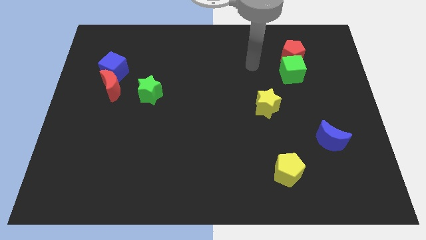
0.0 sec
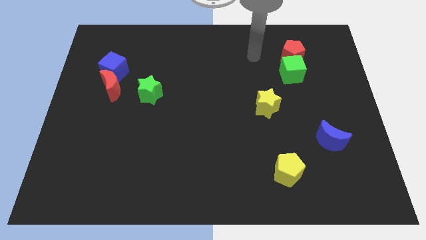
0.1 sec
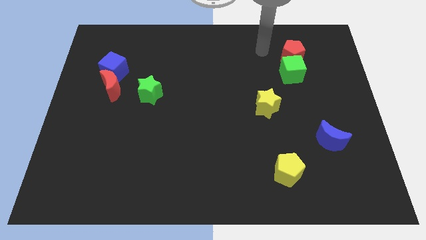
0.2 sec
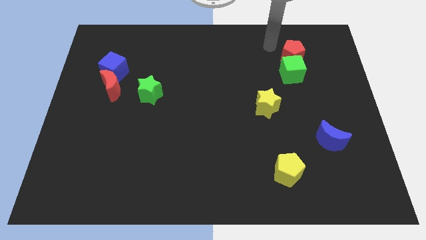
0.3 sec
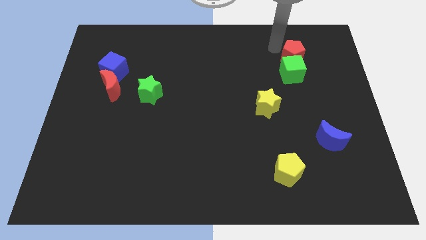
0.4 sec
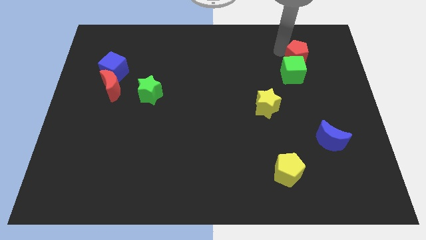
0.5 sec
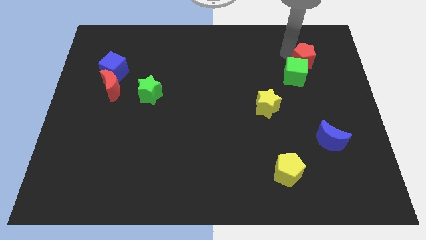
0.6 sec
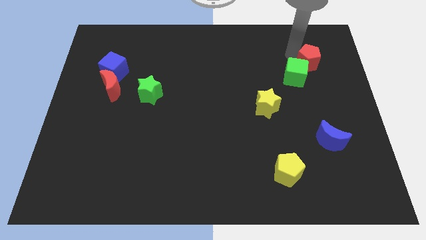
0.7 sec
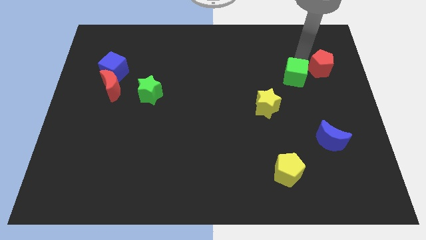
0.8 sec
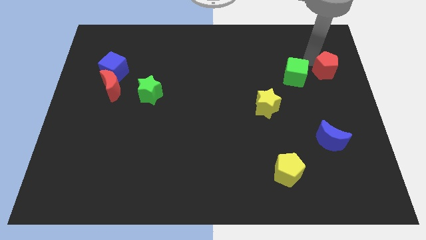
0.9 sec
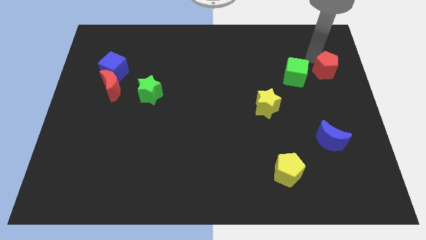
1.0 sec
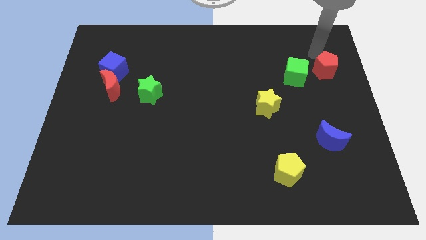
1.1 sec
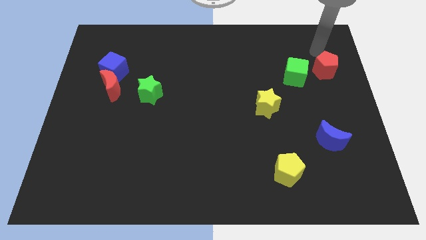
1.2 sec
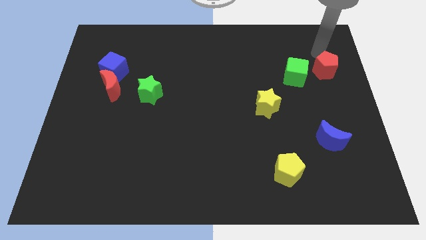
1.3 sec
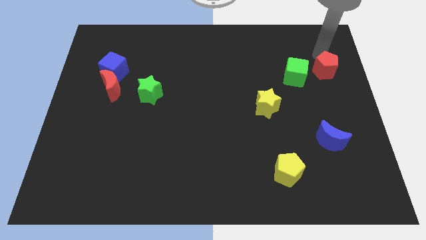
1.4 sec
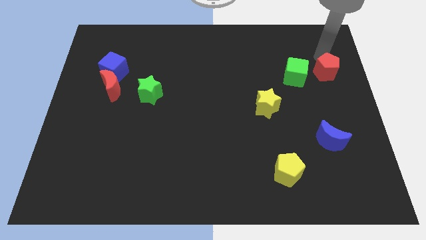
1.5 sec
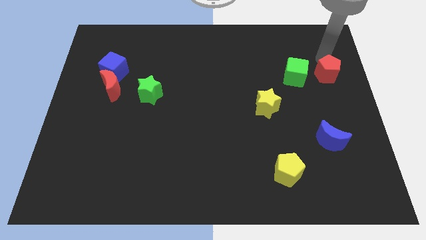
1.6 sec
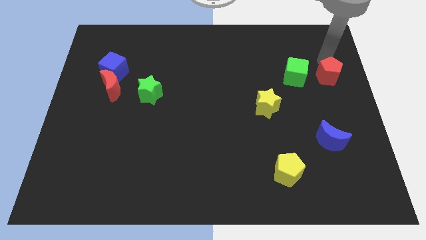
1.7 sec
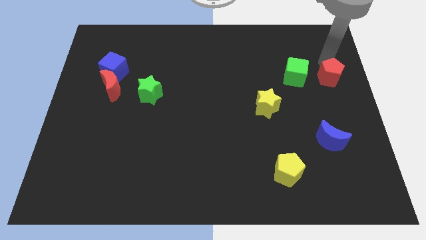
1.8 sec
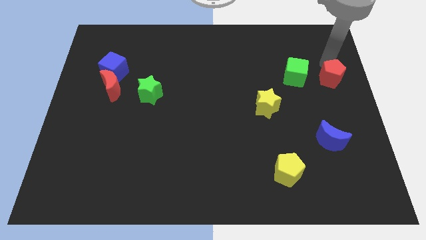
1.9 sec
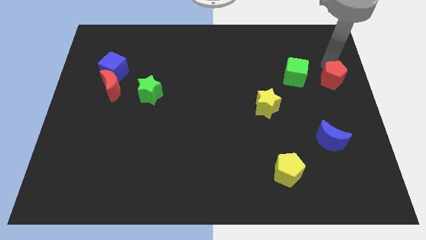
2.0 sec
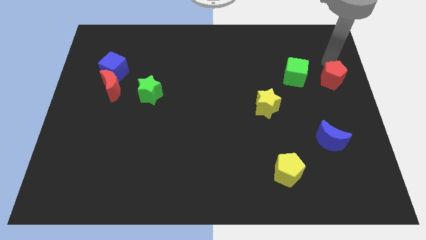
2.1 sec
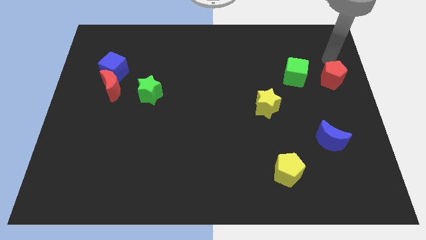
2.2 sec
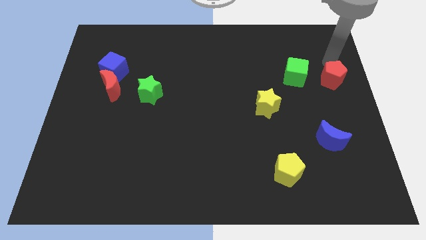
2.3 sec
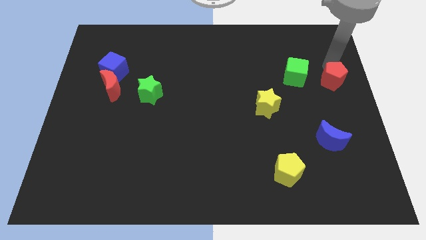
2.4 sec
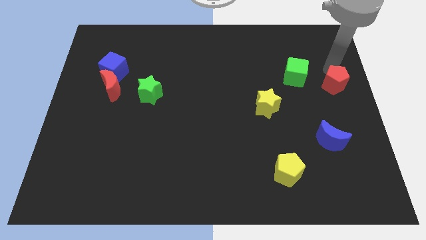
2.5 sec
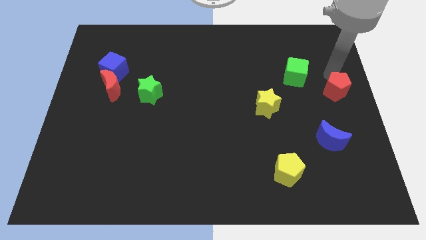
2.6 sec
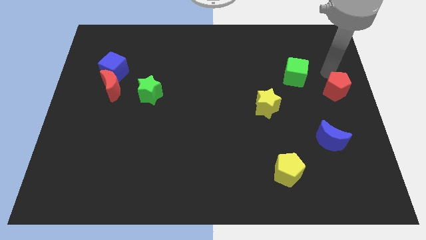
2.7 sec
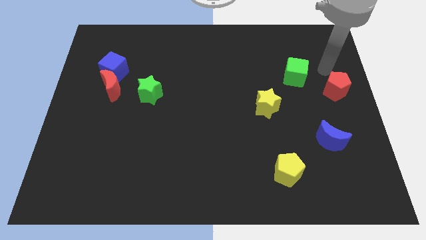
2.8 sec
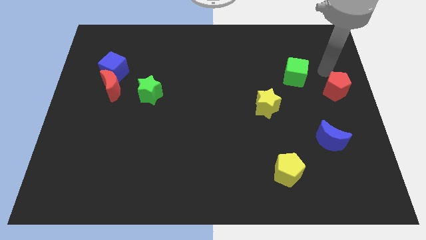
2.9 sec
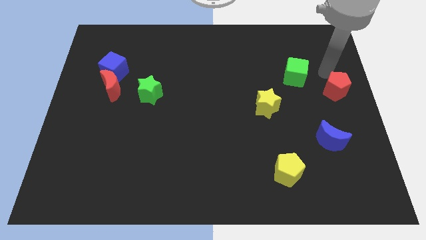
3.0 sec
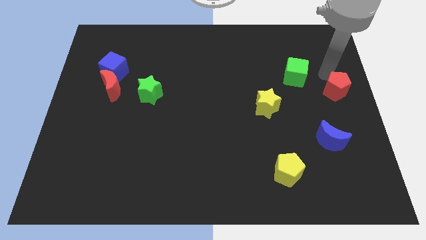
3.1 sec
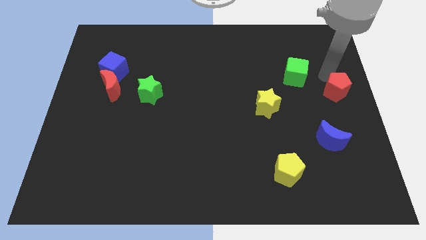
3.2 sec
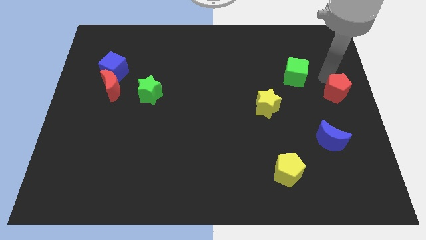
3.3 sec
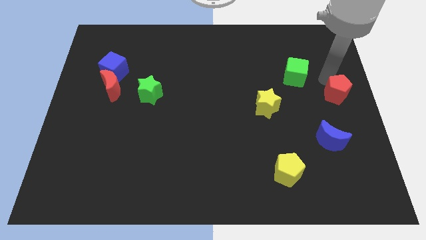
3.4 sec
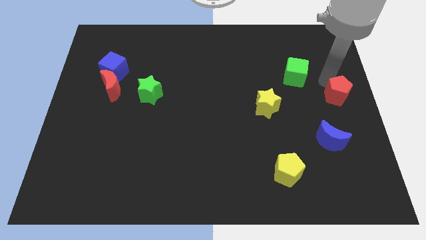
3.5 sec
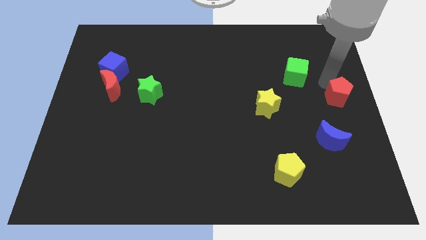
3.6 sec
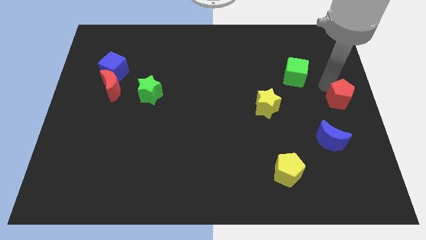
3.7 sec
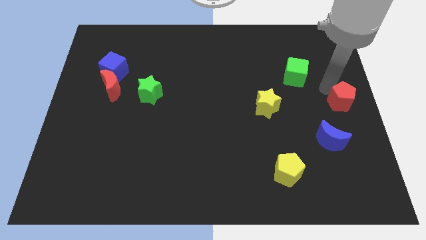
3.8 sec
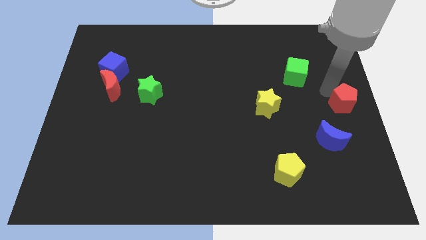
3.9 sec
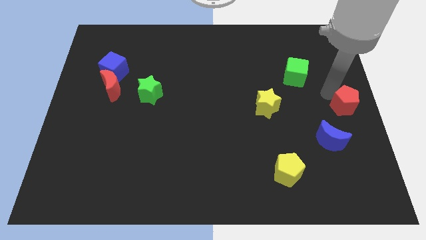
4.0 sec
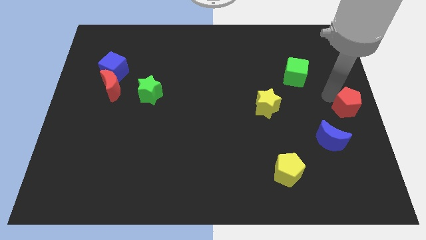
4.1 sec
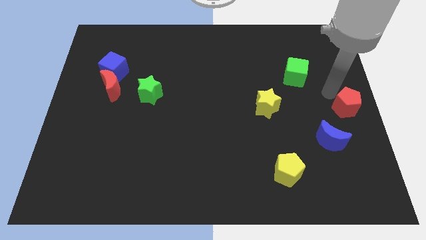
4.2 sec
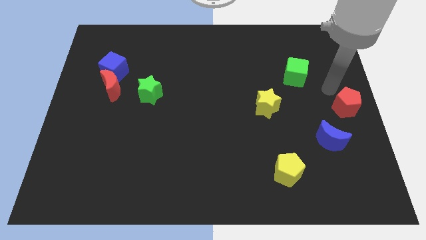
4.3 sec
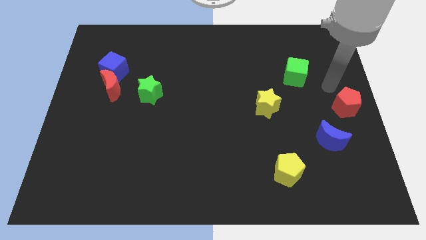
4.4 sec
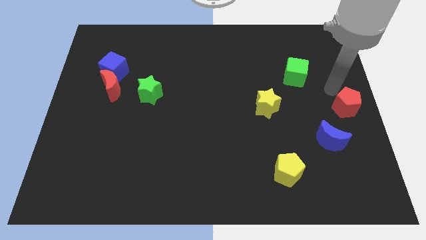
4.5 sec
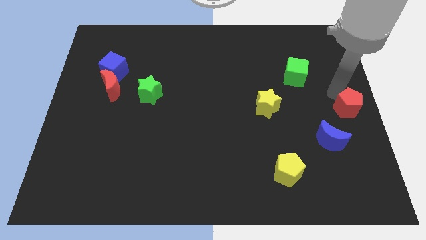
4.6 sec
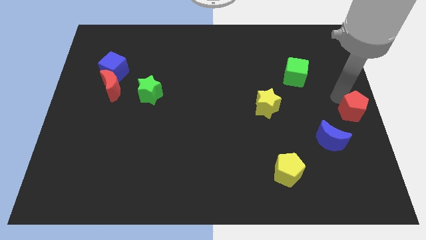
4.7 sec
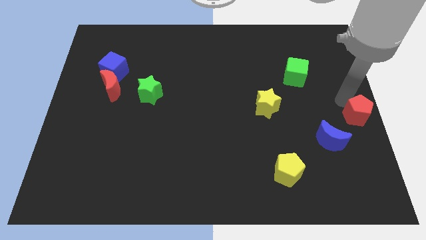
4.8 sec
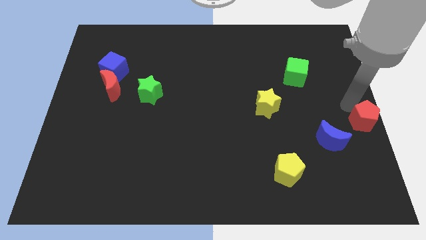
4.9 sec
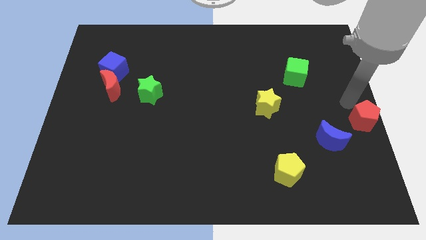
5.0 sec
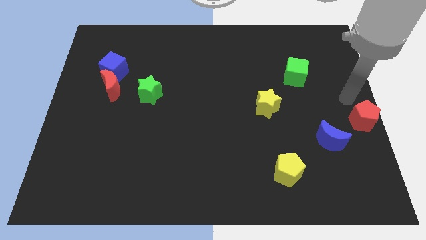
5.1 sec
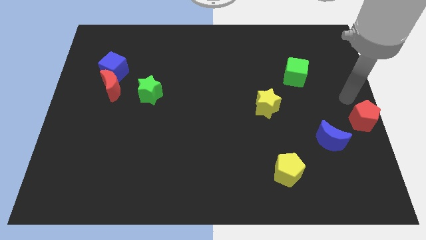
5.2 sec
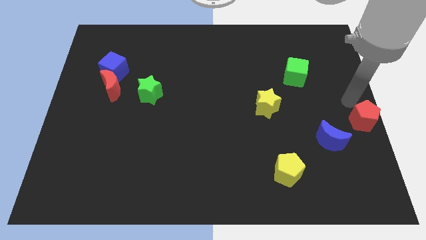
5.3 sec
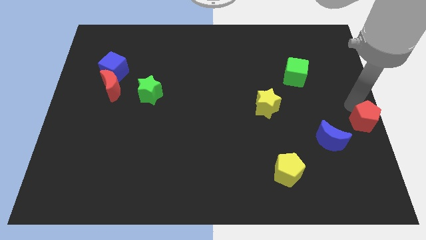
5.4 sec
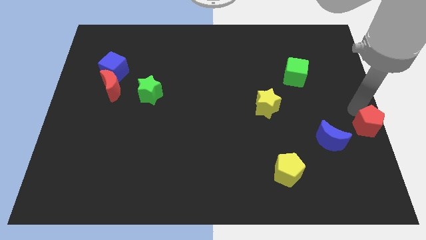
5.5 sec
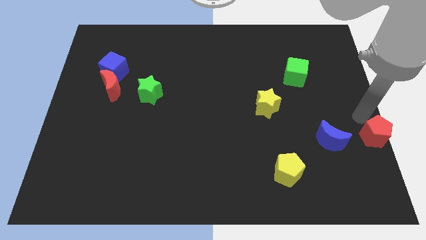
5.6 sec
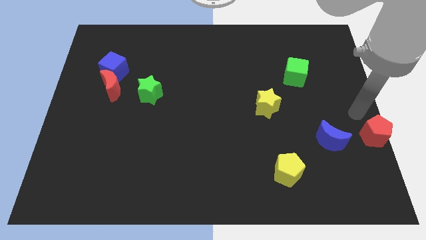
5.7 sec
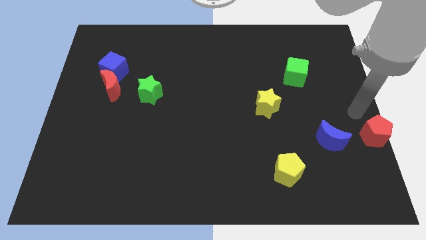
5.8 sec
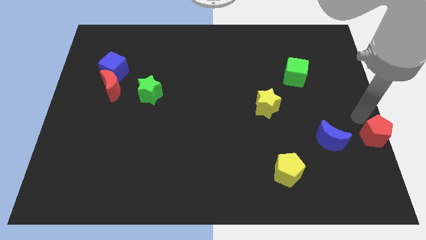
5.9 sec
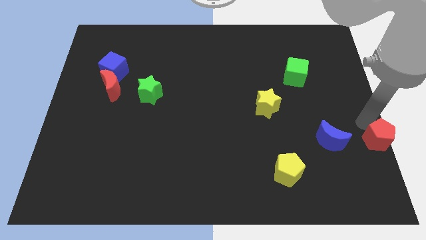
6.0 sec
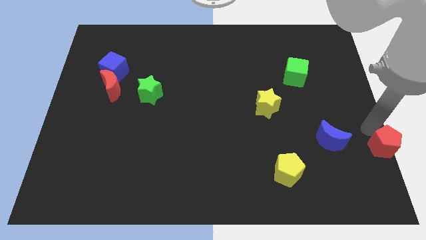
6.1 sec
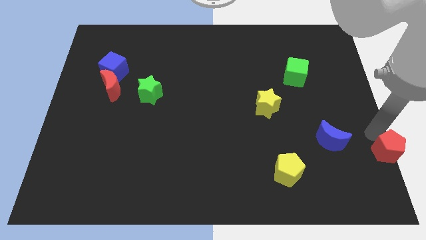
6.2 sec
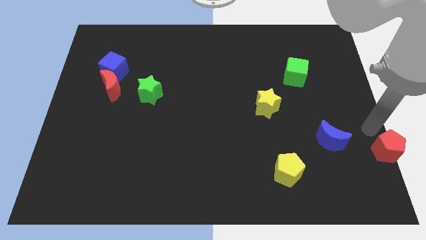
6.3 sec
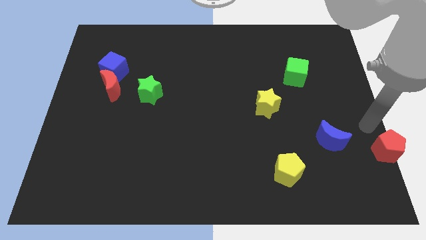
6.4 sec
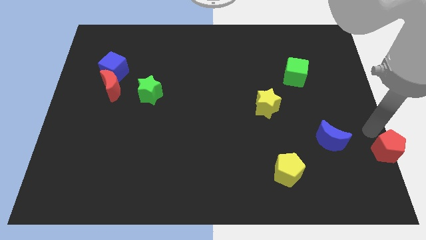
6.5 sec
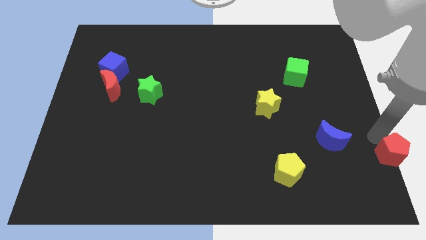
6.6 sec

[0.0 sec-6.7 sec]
push the red pentagon to the lower right corner
